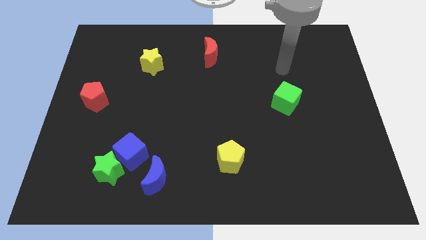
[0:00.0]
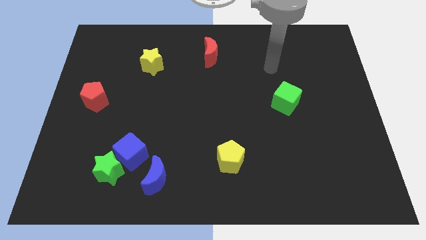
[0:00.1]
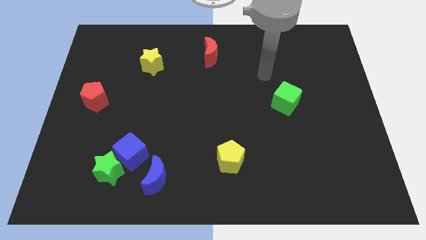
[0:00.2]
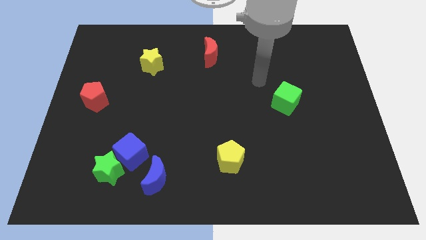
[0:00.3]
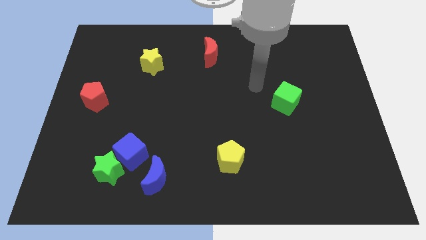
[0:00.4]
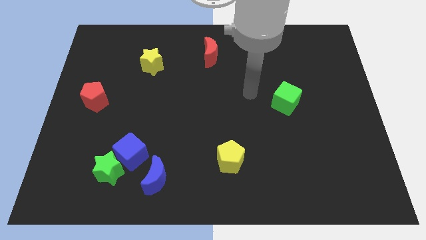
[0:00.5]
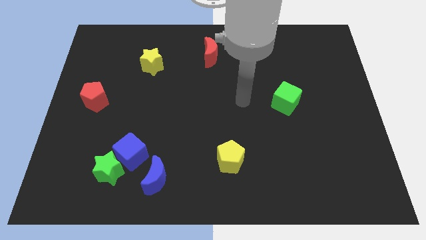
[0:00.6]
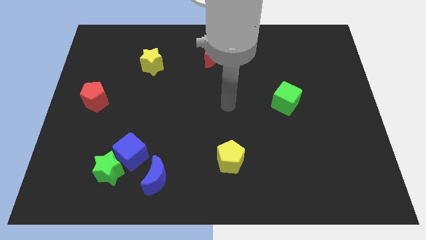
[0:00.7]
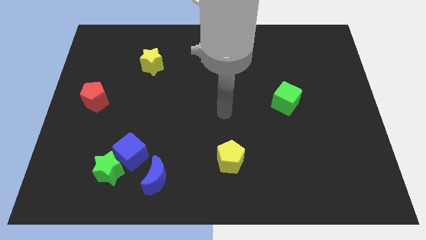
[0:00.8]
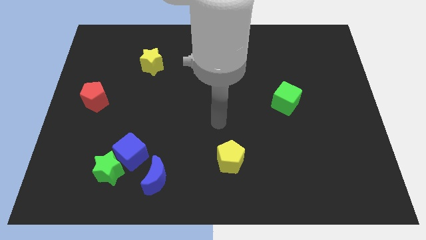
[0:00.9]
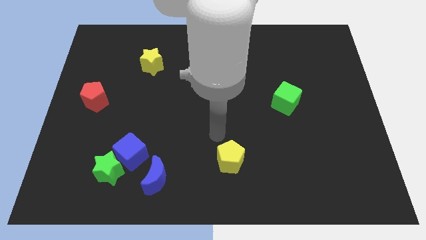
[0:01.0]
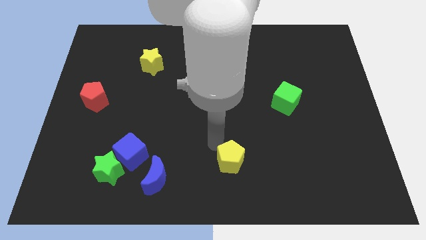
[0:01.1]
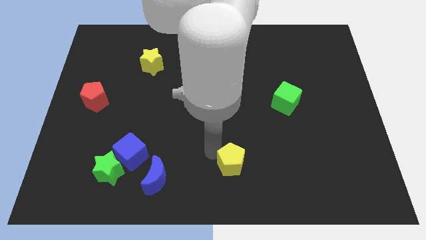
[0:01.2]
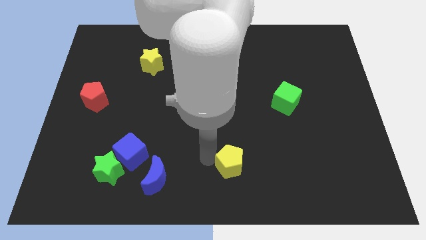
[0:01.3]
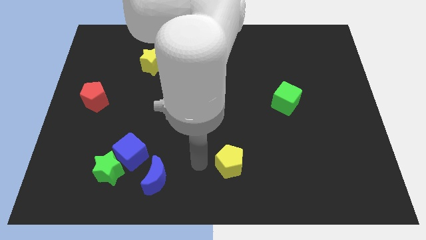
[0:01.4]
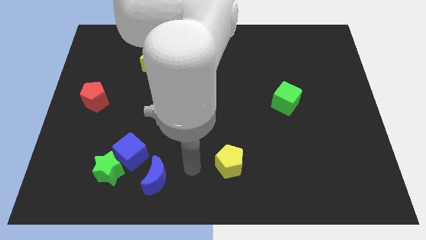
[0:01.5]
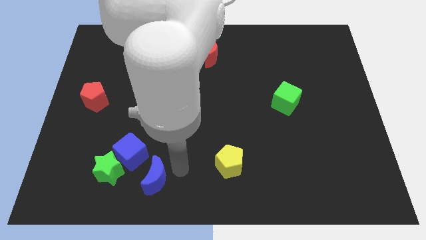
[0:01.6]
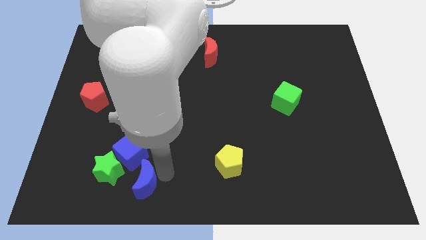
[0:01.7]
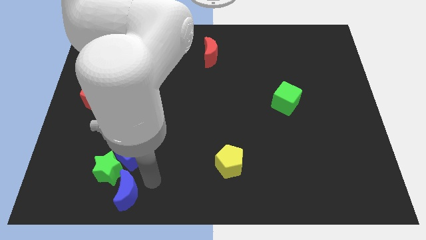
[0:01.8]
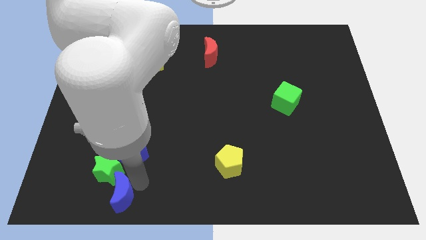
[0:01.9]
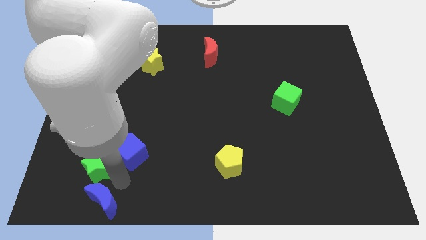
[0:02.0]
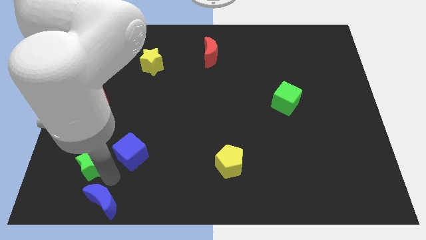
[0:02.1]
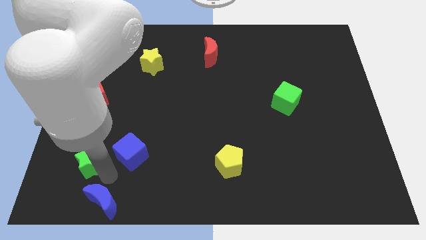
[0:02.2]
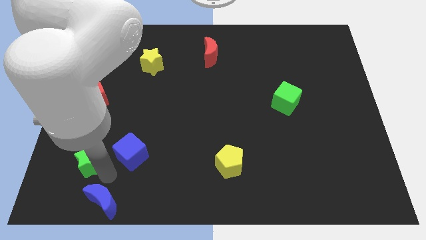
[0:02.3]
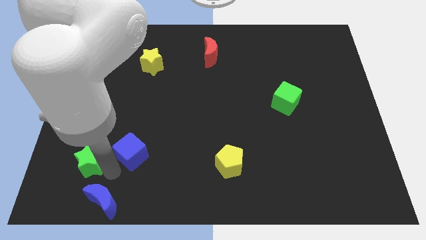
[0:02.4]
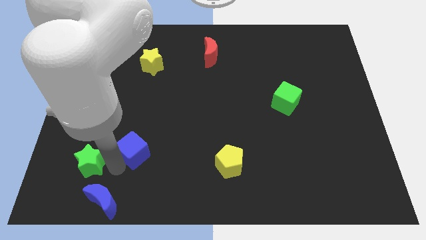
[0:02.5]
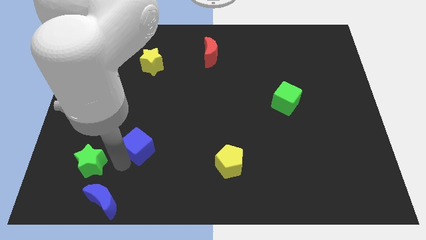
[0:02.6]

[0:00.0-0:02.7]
move the blue cube away from the green star and blue moon

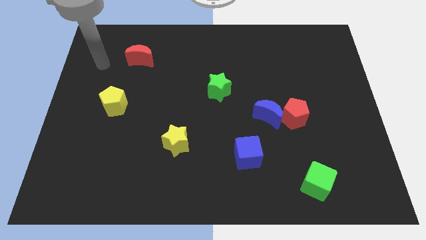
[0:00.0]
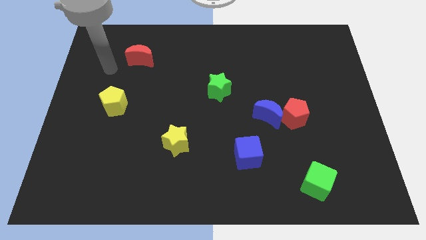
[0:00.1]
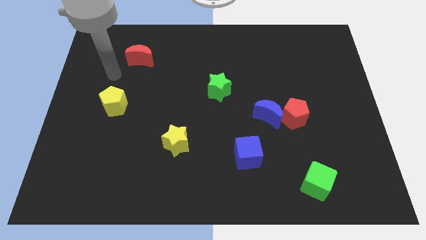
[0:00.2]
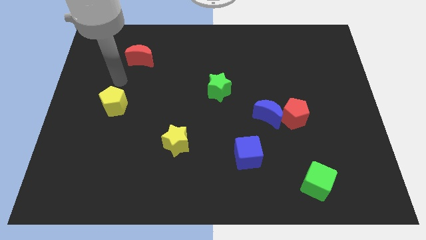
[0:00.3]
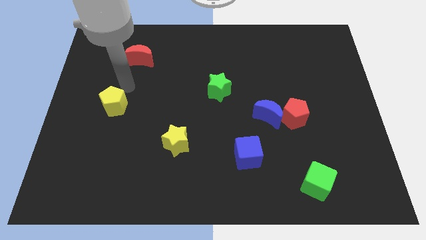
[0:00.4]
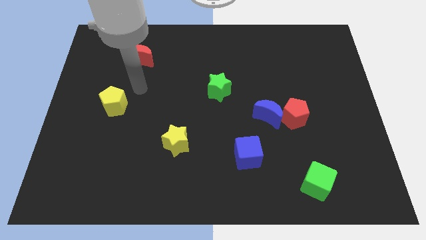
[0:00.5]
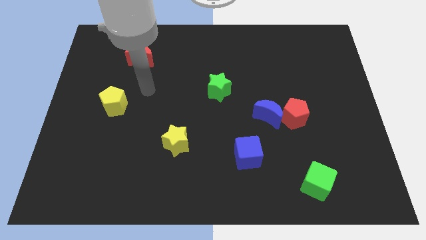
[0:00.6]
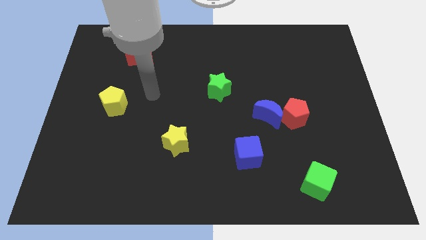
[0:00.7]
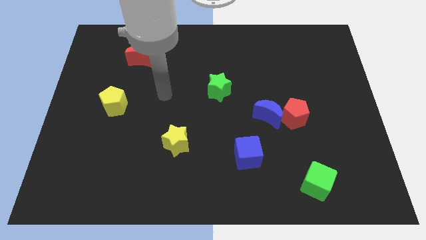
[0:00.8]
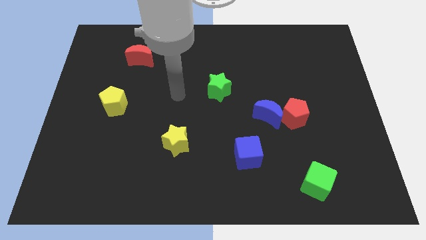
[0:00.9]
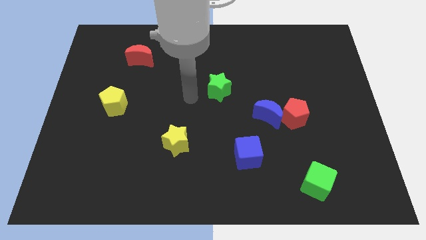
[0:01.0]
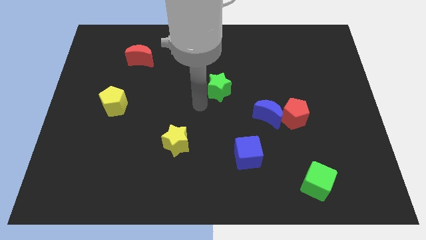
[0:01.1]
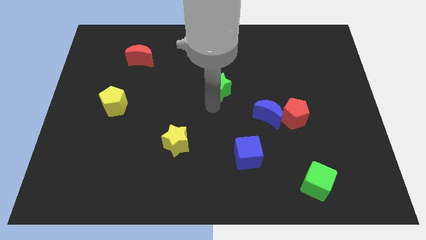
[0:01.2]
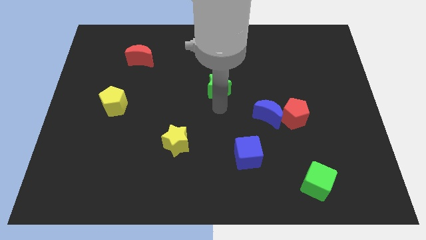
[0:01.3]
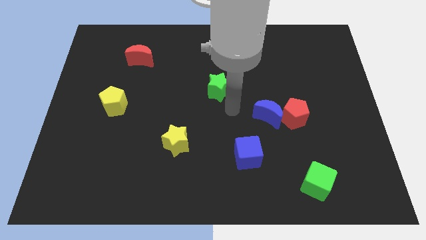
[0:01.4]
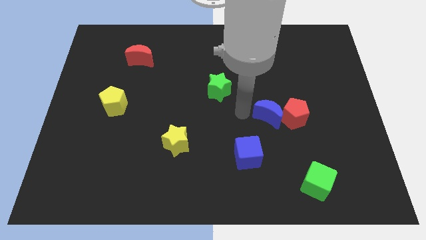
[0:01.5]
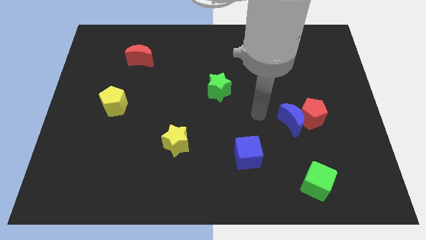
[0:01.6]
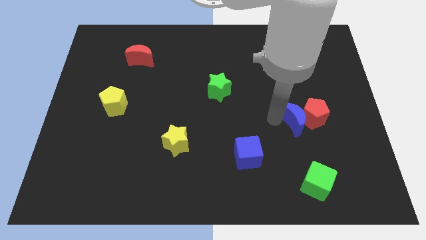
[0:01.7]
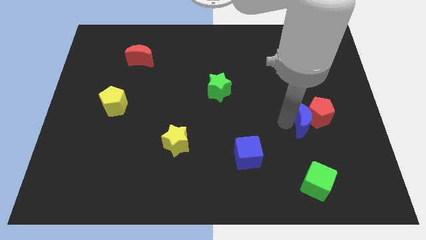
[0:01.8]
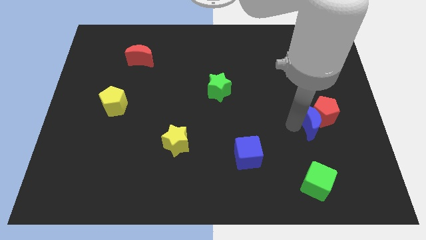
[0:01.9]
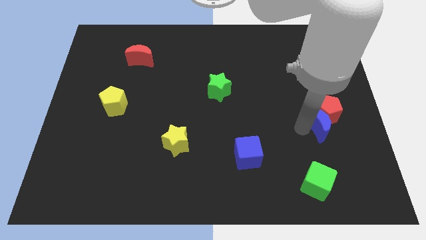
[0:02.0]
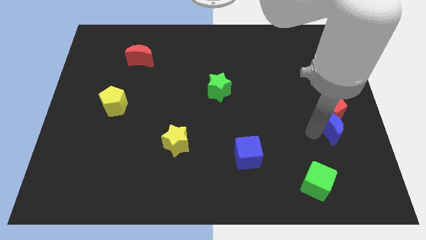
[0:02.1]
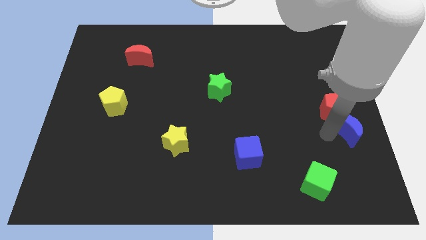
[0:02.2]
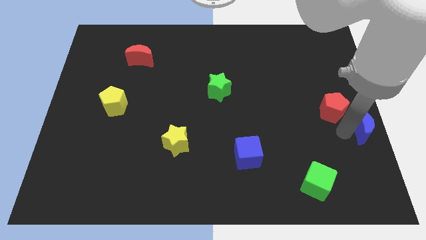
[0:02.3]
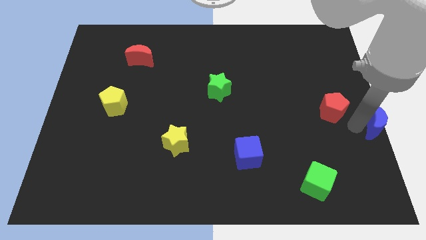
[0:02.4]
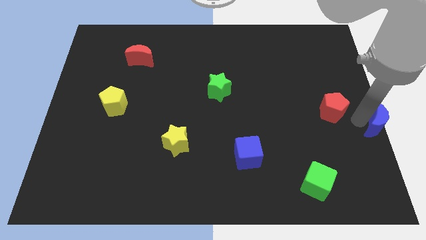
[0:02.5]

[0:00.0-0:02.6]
separate the red pentagon from the blue moon

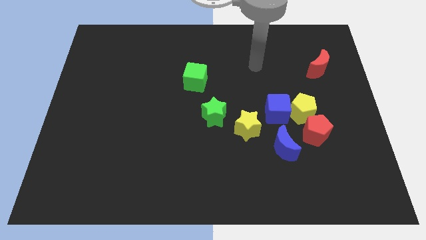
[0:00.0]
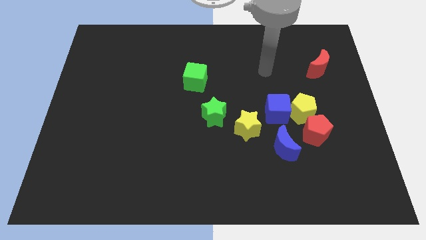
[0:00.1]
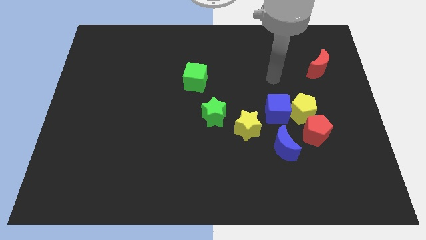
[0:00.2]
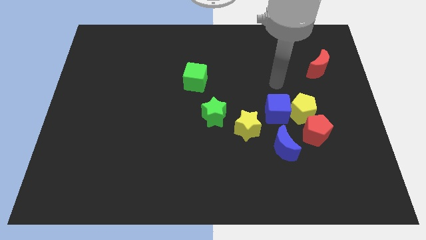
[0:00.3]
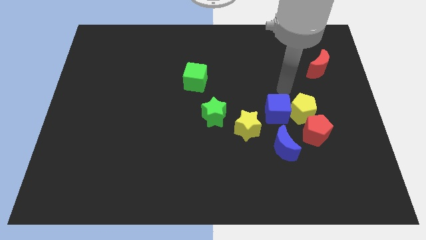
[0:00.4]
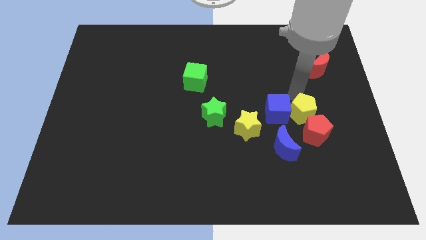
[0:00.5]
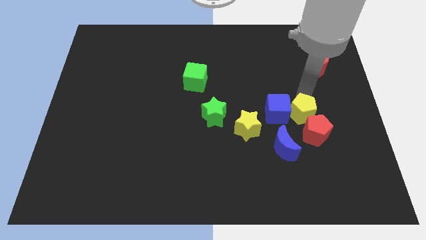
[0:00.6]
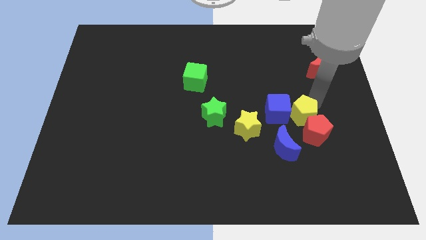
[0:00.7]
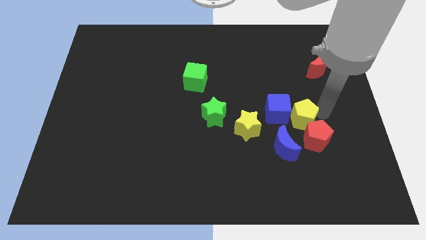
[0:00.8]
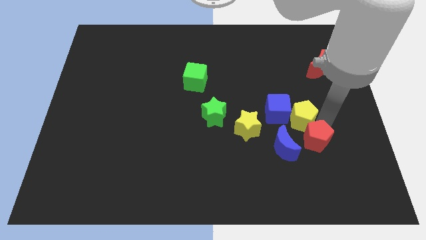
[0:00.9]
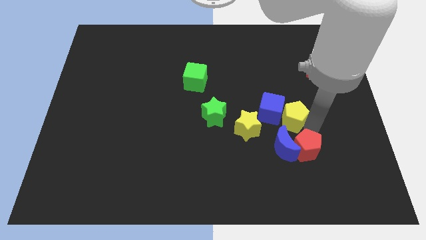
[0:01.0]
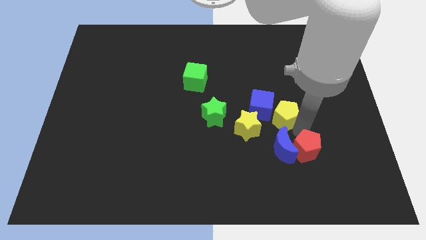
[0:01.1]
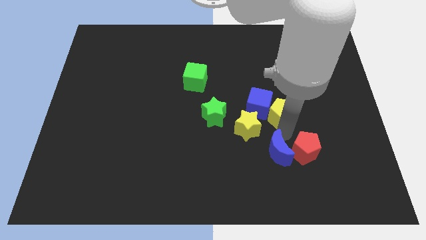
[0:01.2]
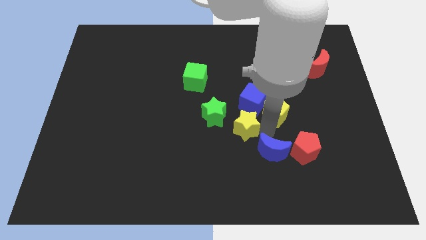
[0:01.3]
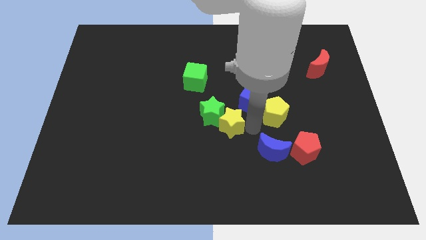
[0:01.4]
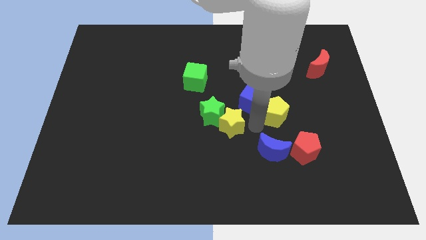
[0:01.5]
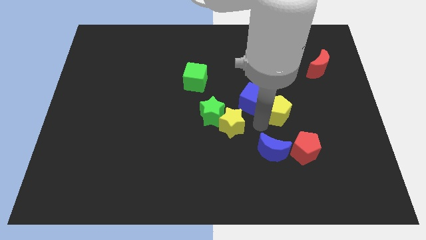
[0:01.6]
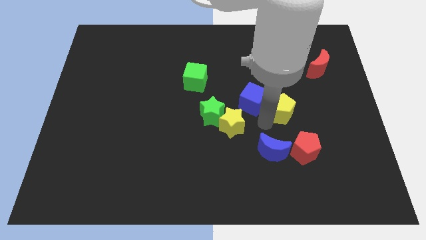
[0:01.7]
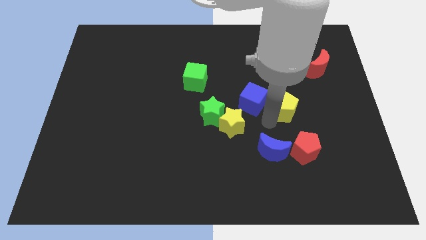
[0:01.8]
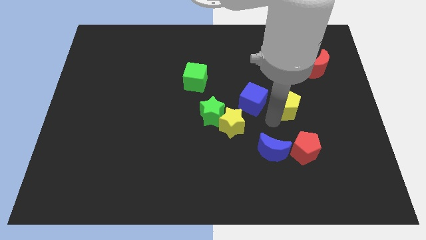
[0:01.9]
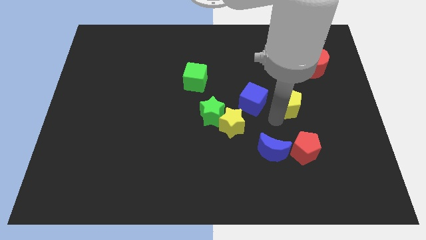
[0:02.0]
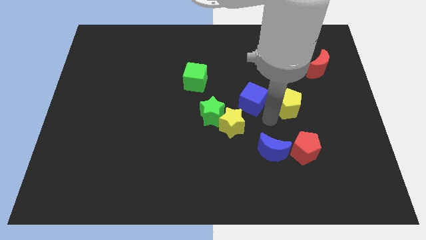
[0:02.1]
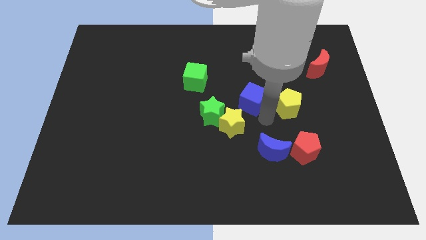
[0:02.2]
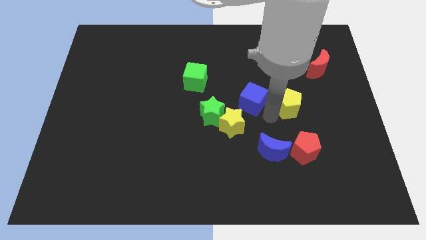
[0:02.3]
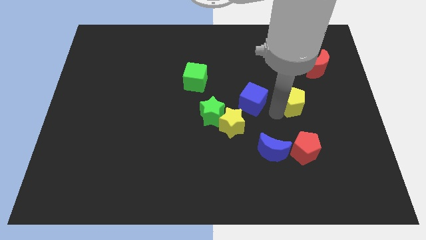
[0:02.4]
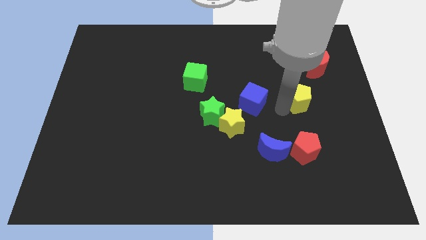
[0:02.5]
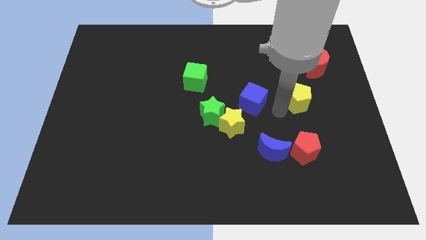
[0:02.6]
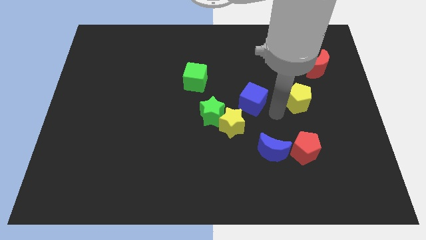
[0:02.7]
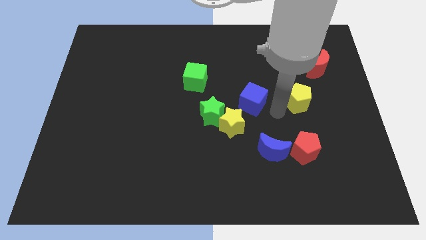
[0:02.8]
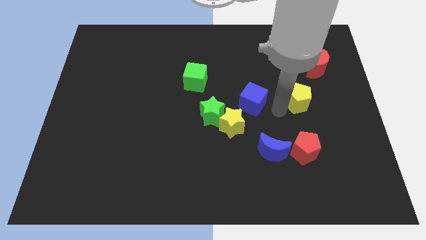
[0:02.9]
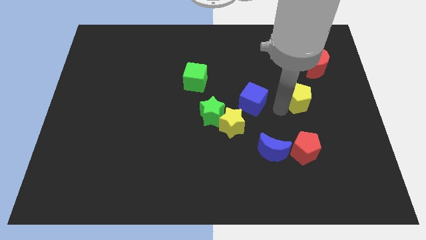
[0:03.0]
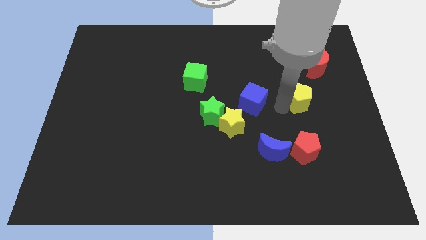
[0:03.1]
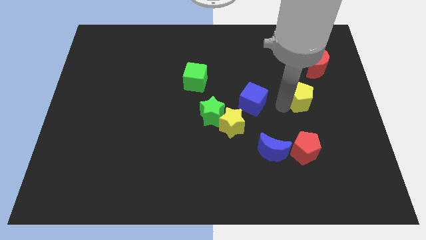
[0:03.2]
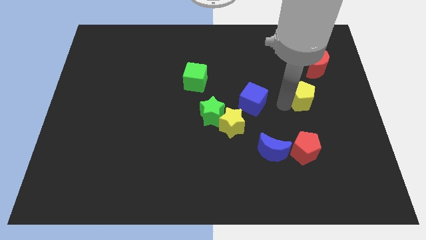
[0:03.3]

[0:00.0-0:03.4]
move the yellow pentagon away from the blue cube and red pentagon

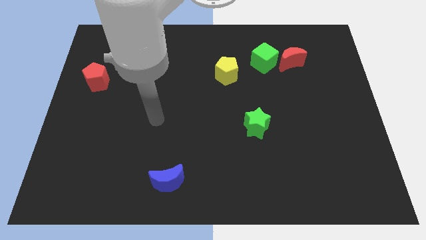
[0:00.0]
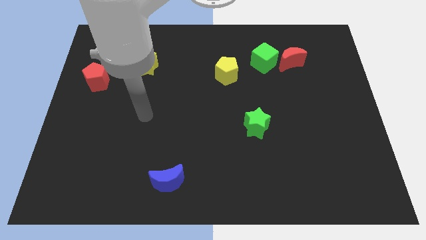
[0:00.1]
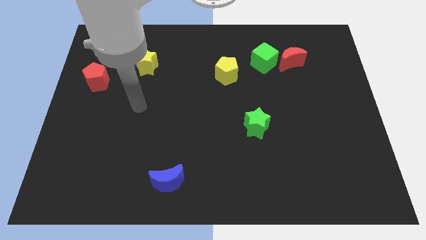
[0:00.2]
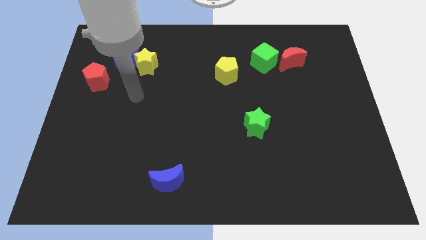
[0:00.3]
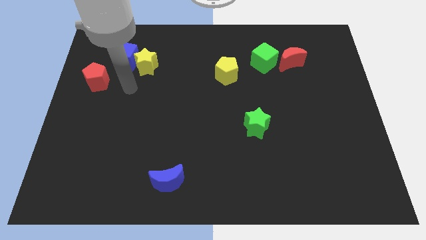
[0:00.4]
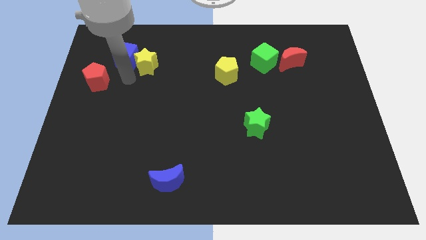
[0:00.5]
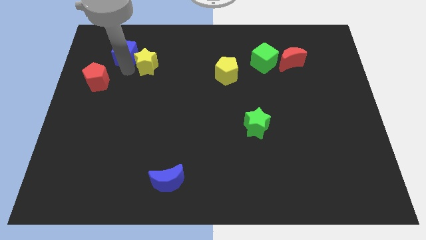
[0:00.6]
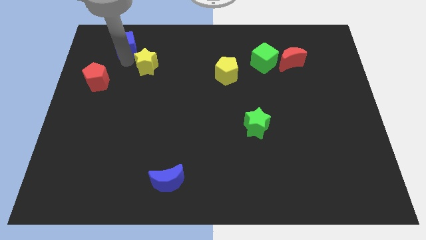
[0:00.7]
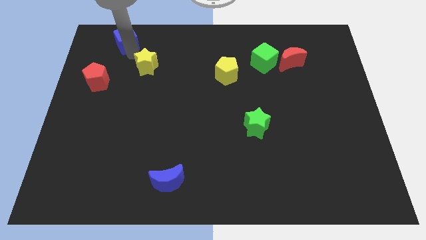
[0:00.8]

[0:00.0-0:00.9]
move the yellow star away from the blue cube
